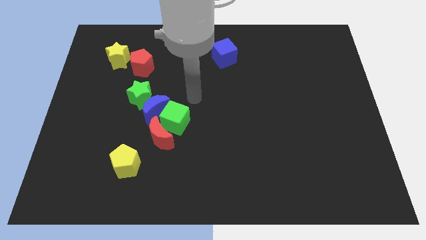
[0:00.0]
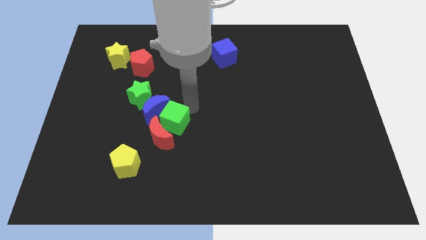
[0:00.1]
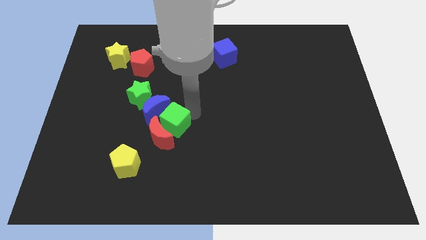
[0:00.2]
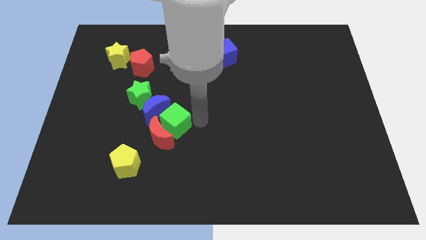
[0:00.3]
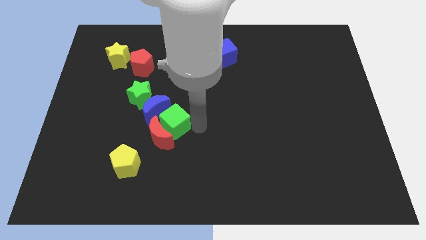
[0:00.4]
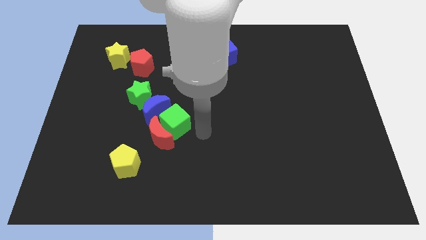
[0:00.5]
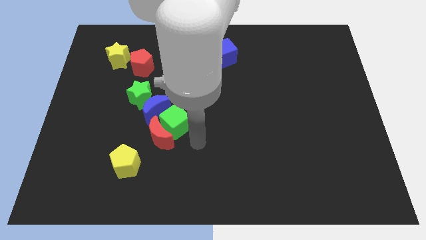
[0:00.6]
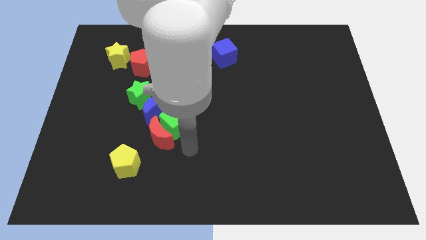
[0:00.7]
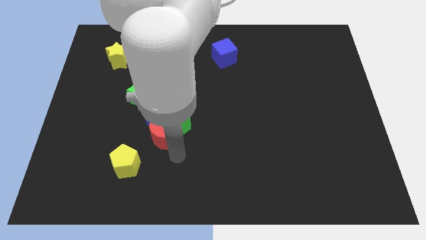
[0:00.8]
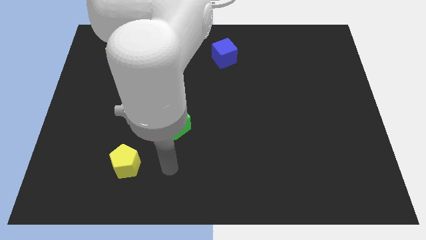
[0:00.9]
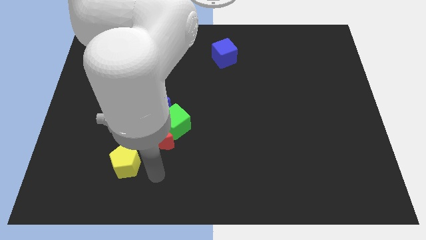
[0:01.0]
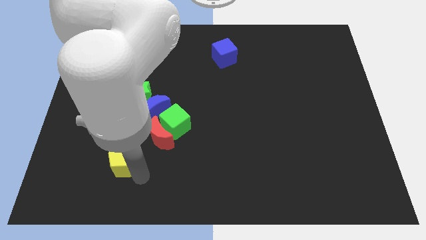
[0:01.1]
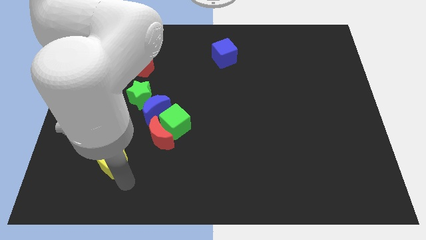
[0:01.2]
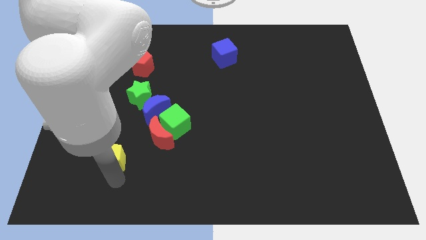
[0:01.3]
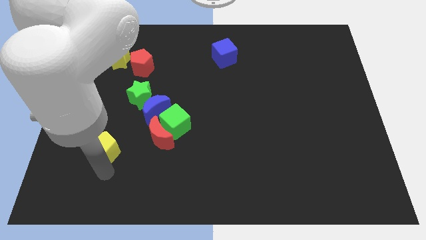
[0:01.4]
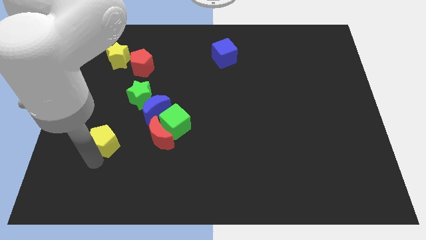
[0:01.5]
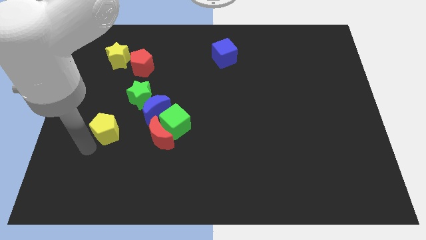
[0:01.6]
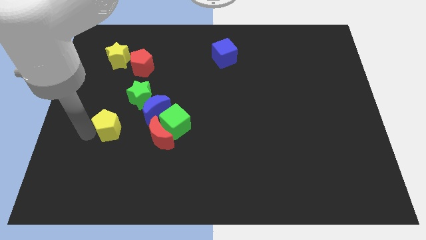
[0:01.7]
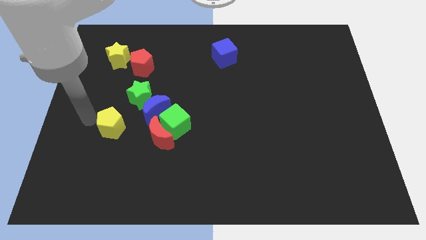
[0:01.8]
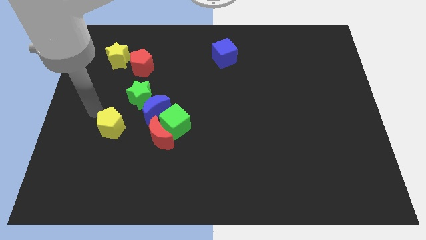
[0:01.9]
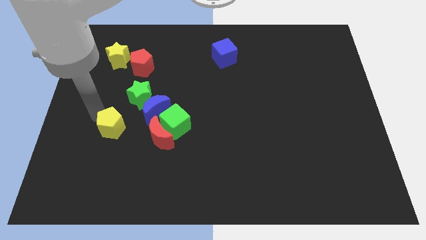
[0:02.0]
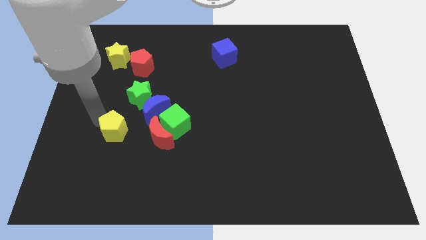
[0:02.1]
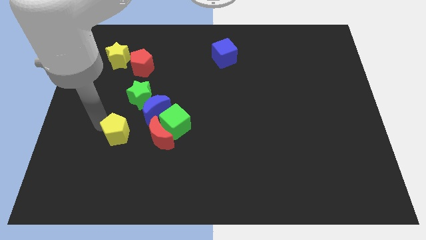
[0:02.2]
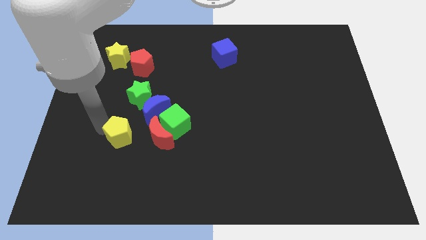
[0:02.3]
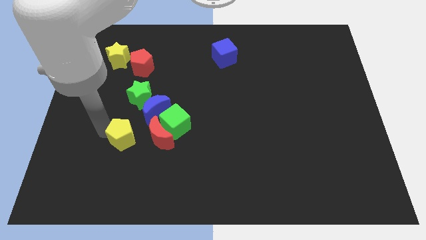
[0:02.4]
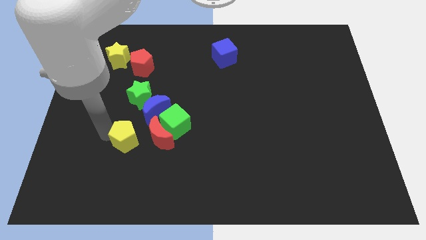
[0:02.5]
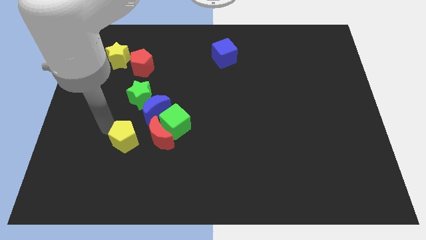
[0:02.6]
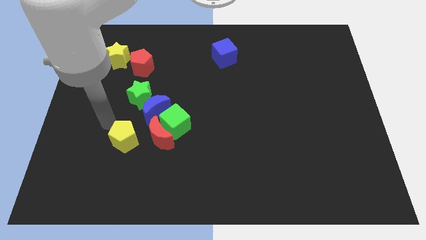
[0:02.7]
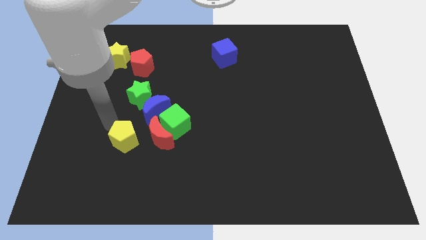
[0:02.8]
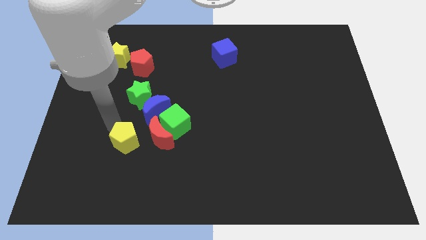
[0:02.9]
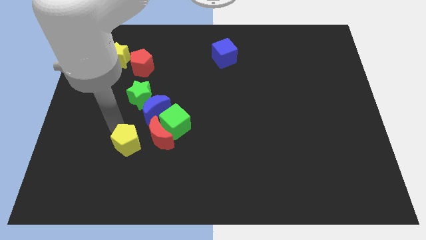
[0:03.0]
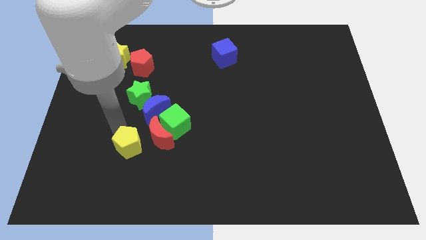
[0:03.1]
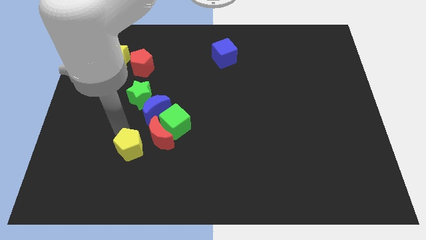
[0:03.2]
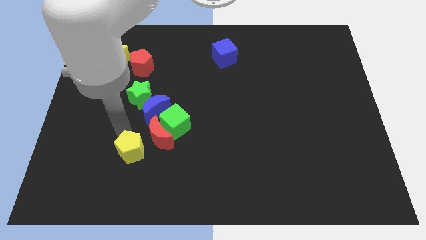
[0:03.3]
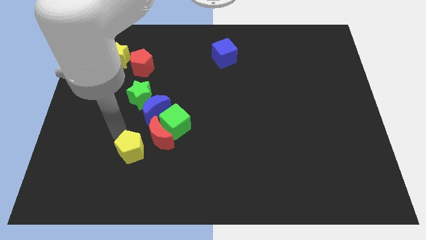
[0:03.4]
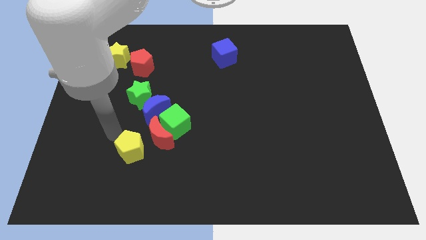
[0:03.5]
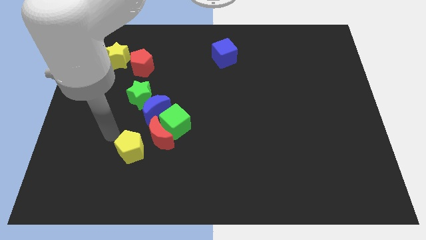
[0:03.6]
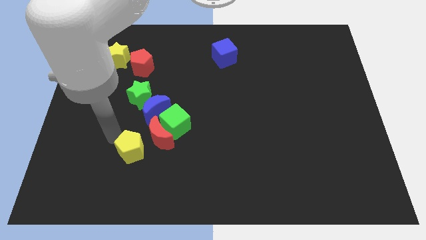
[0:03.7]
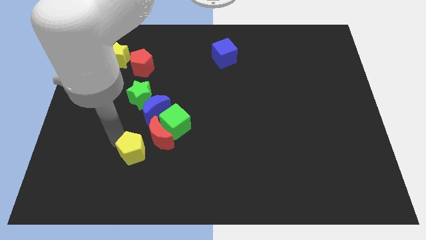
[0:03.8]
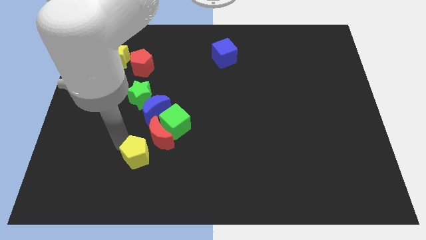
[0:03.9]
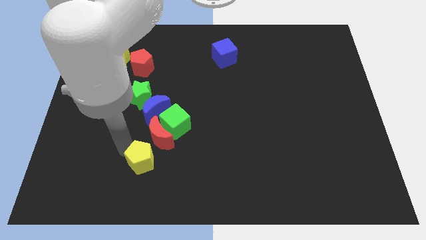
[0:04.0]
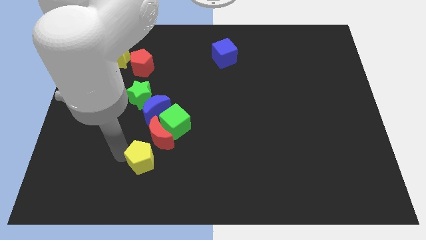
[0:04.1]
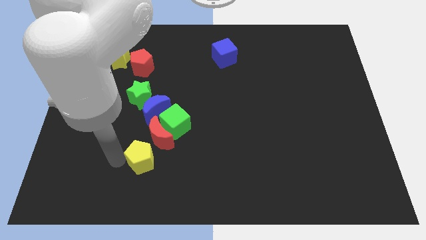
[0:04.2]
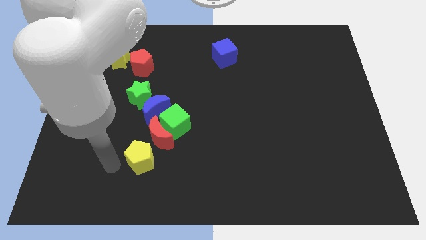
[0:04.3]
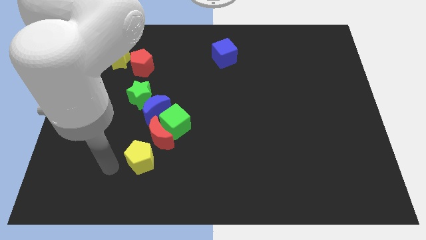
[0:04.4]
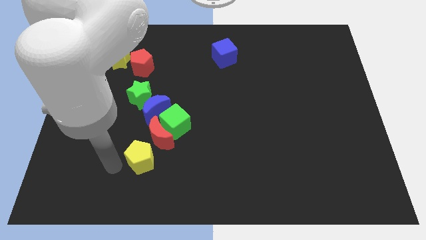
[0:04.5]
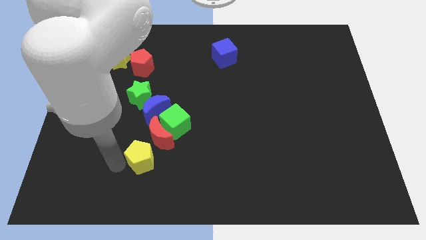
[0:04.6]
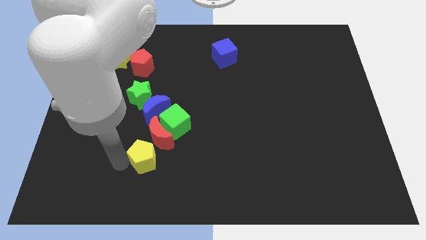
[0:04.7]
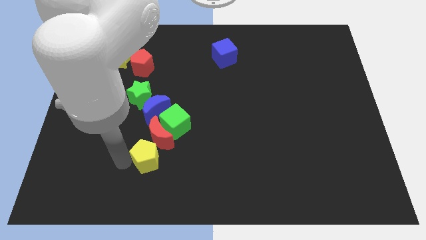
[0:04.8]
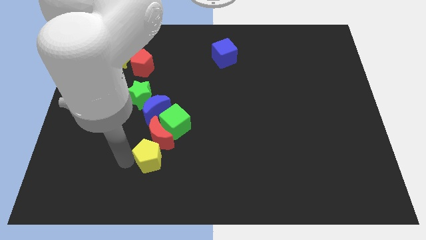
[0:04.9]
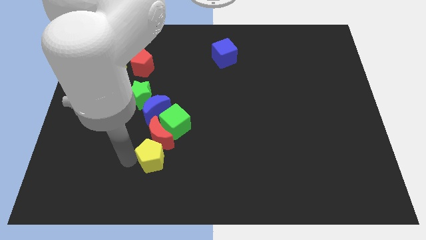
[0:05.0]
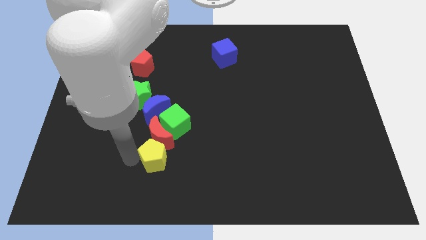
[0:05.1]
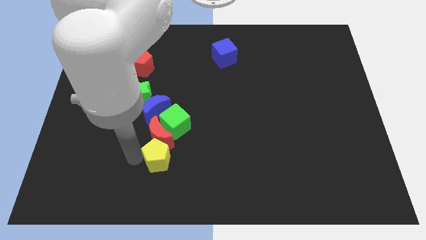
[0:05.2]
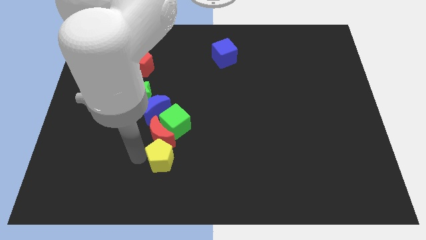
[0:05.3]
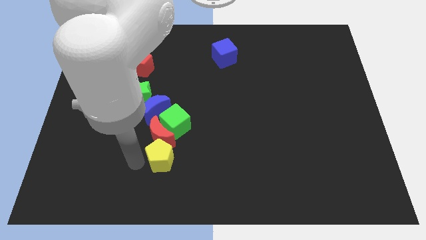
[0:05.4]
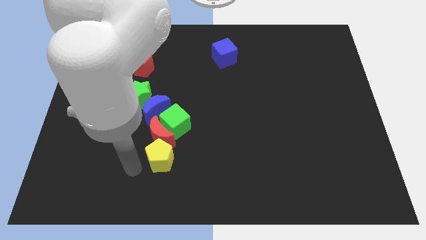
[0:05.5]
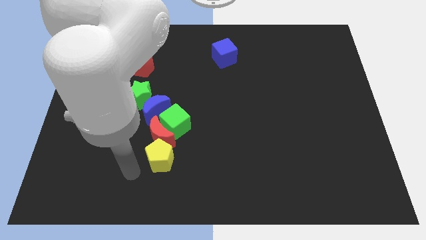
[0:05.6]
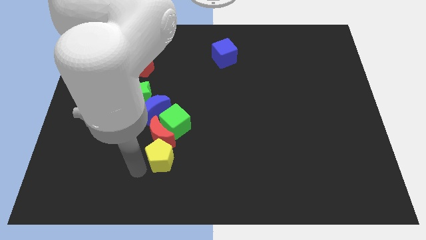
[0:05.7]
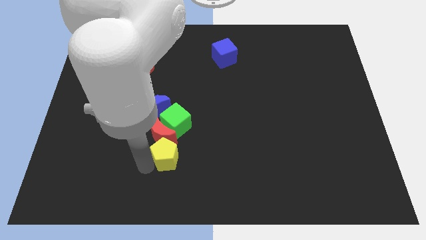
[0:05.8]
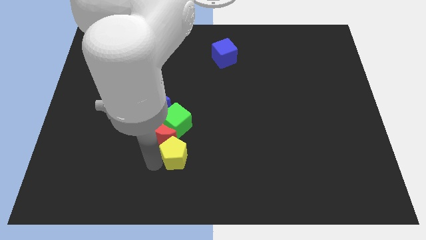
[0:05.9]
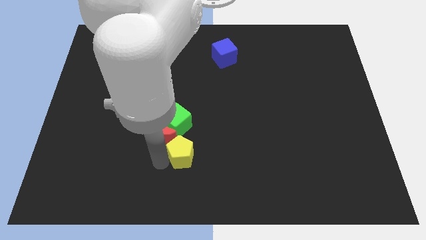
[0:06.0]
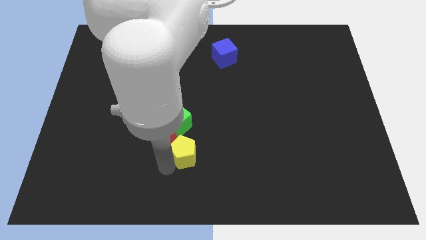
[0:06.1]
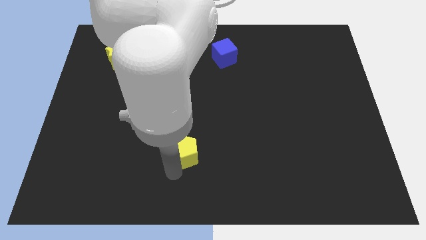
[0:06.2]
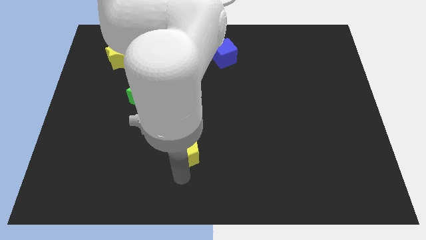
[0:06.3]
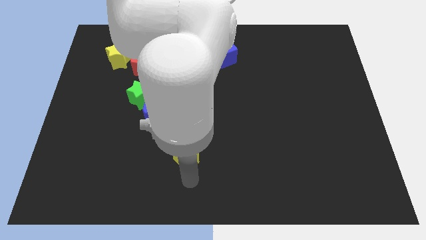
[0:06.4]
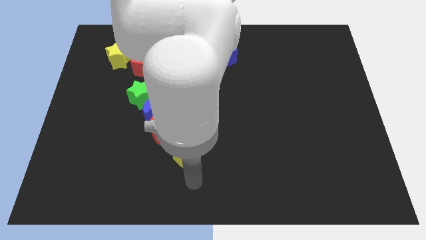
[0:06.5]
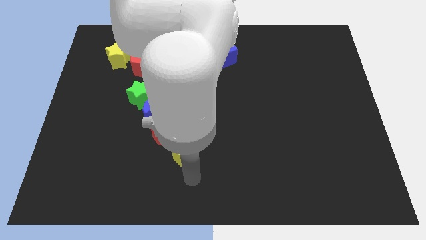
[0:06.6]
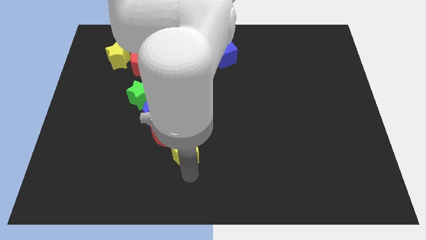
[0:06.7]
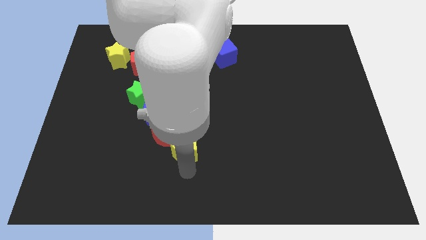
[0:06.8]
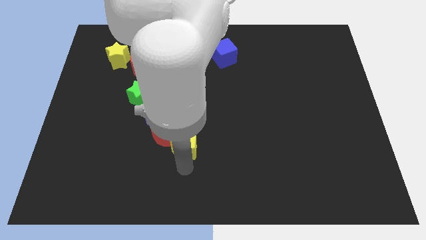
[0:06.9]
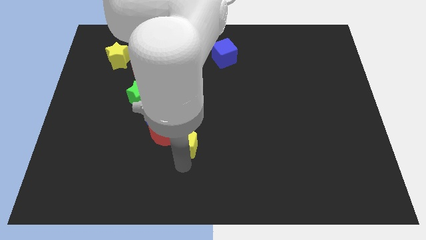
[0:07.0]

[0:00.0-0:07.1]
push the yellow pentagon close to the green cube

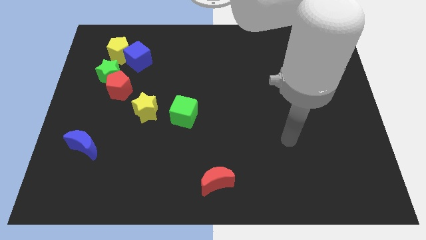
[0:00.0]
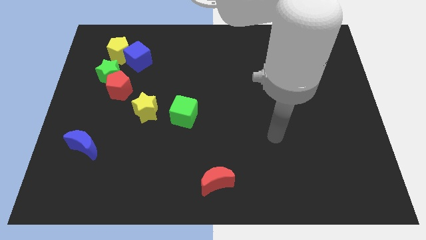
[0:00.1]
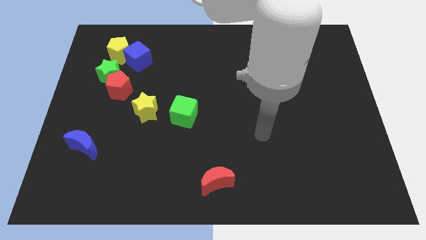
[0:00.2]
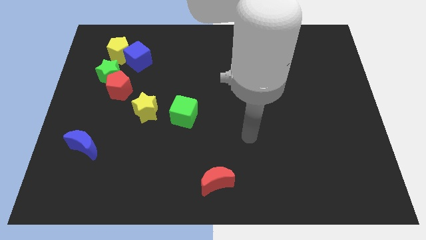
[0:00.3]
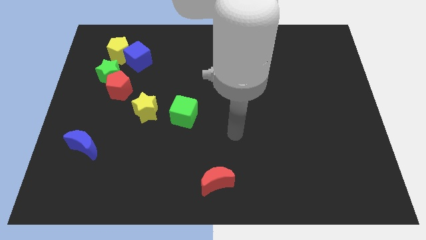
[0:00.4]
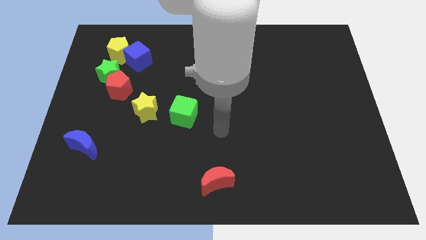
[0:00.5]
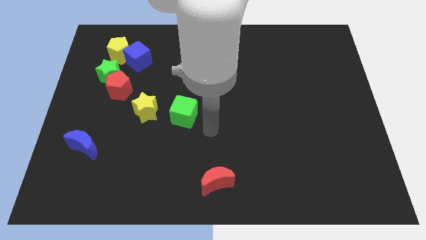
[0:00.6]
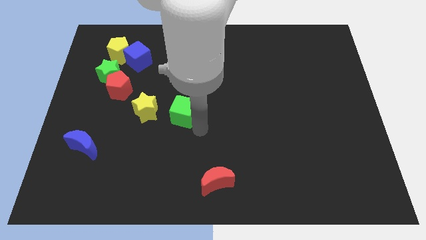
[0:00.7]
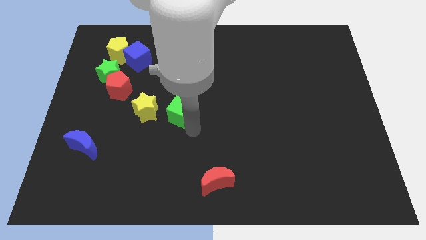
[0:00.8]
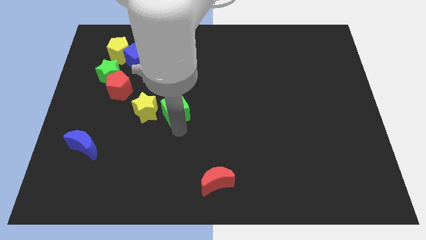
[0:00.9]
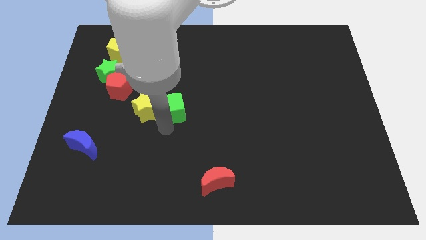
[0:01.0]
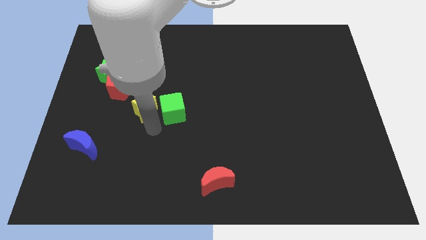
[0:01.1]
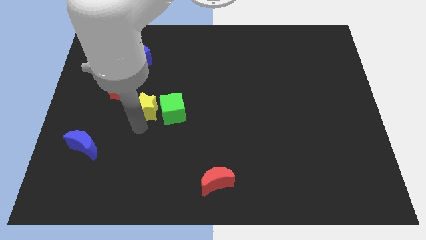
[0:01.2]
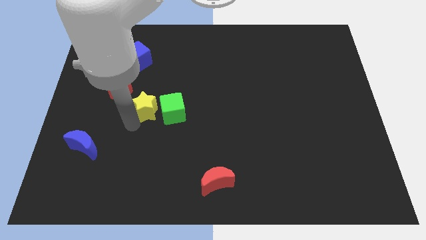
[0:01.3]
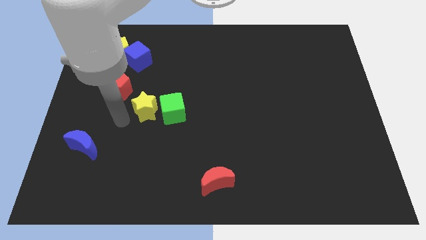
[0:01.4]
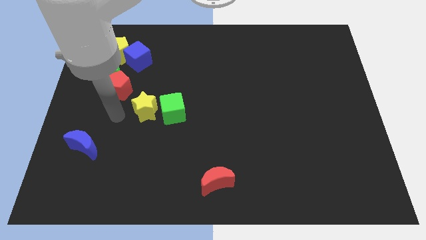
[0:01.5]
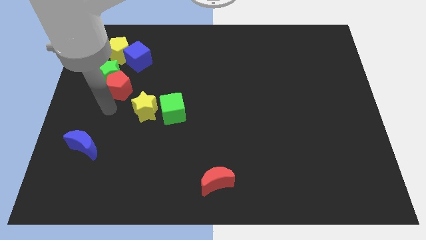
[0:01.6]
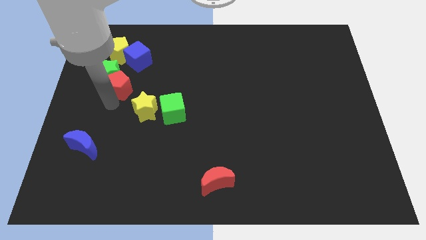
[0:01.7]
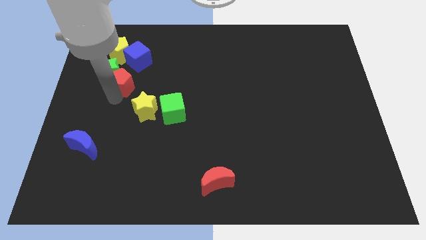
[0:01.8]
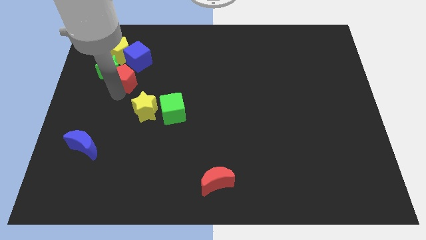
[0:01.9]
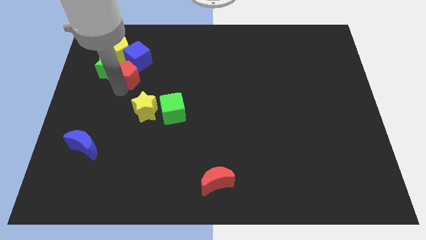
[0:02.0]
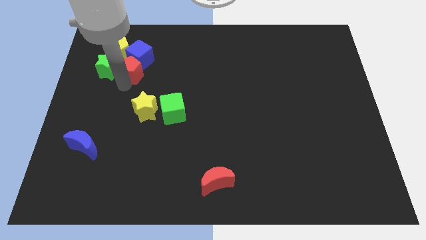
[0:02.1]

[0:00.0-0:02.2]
push the red pentagon next to the blue cube
